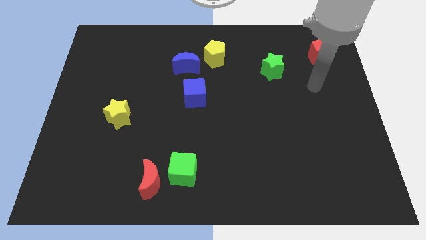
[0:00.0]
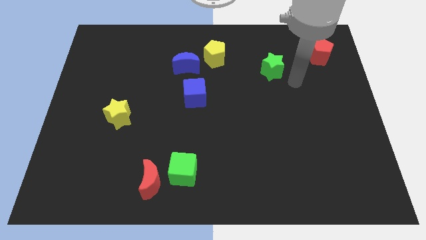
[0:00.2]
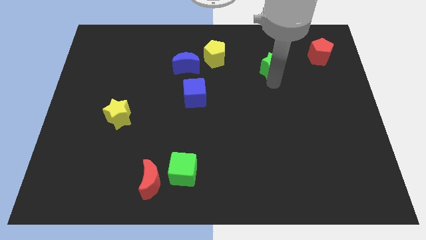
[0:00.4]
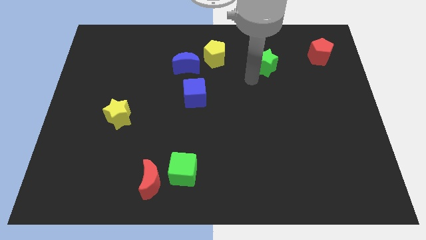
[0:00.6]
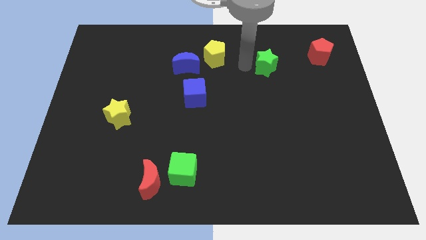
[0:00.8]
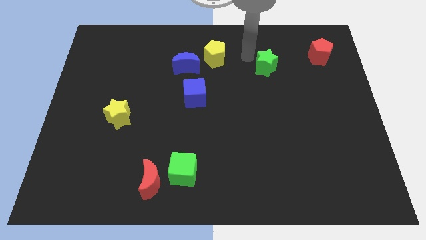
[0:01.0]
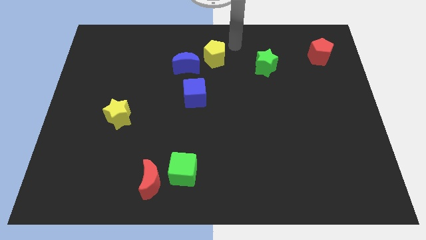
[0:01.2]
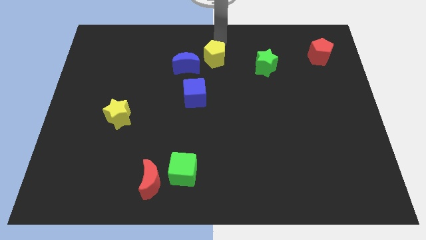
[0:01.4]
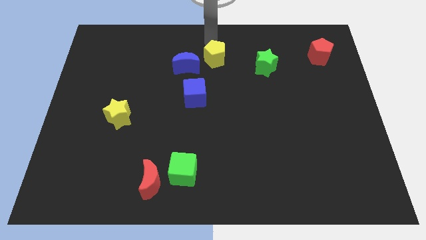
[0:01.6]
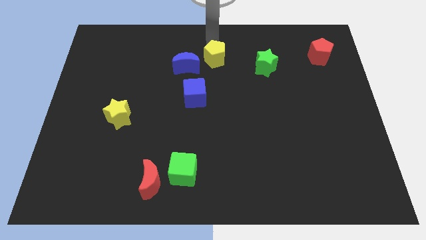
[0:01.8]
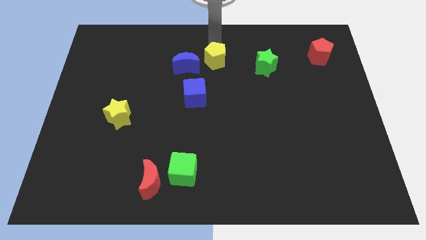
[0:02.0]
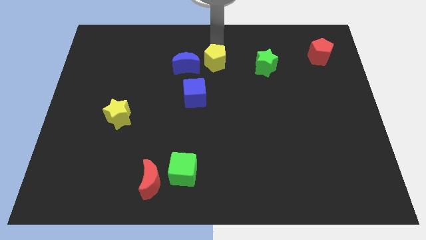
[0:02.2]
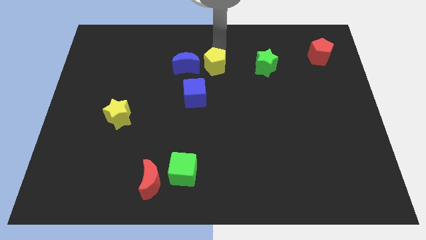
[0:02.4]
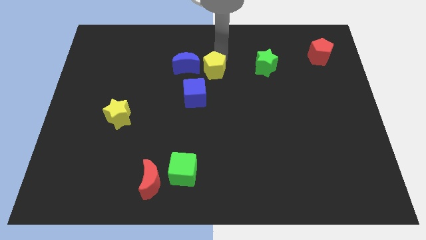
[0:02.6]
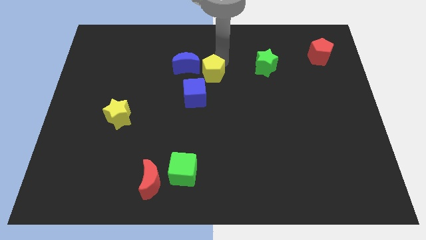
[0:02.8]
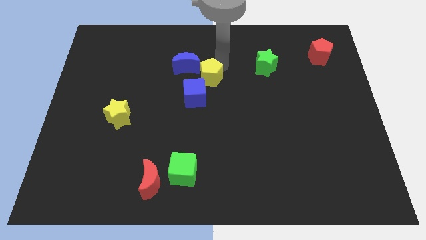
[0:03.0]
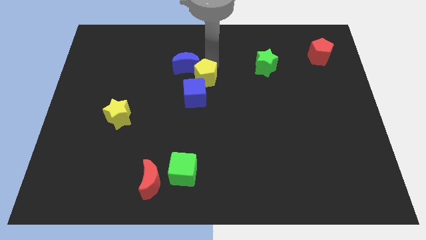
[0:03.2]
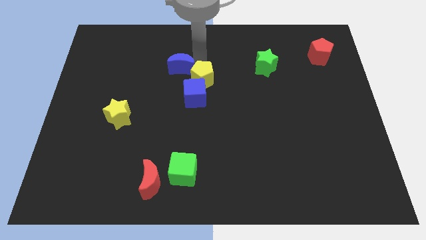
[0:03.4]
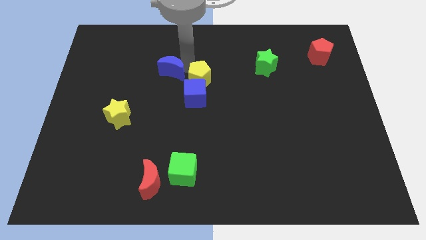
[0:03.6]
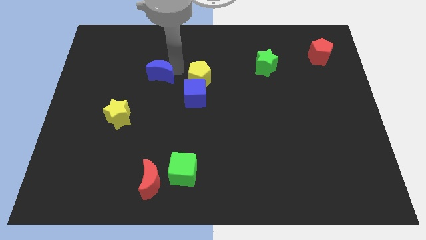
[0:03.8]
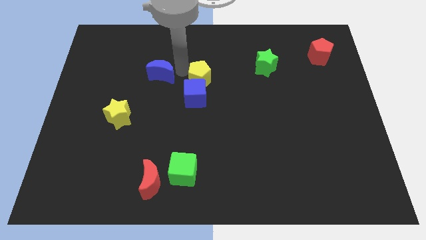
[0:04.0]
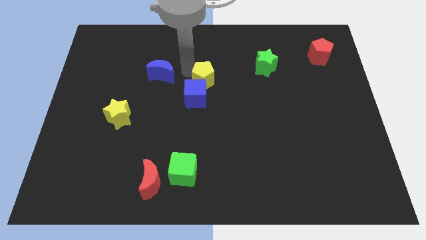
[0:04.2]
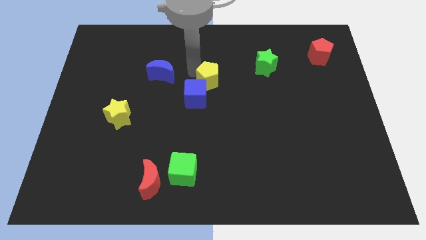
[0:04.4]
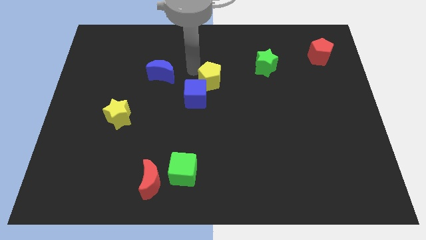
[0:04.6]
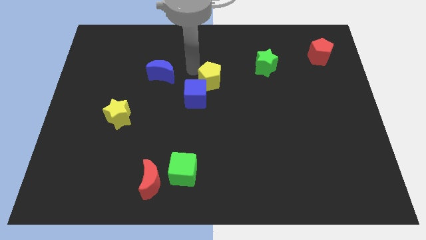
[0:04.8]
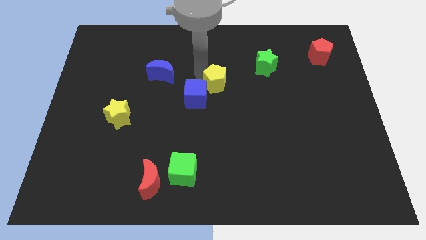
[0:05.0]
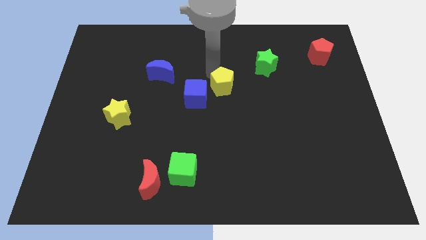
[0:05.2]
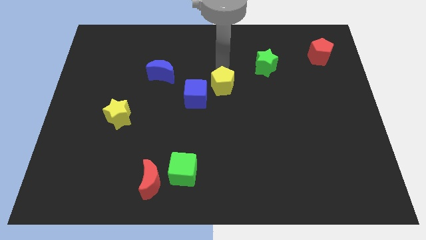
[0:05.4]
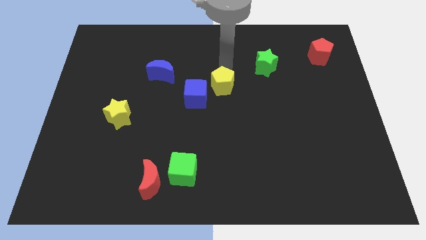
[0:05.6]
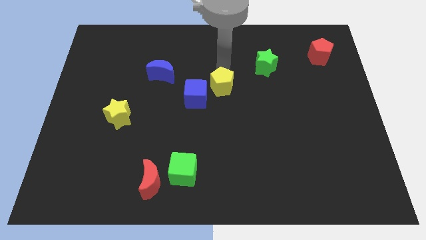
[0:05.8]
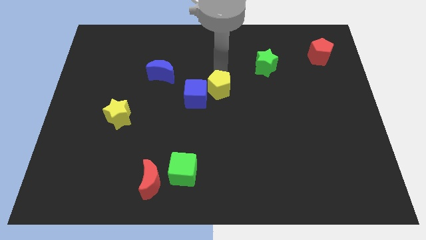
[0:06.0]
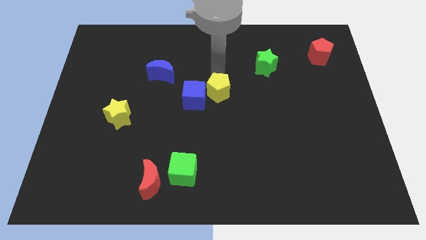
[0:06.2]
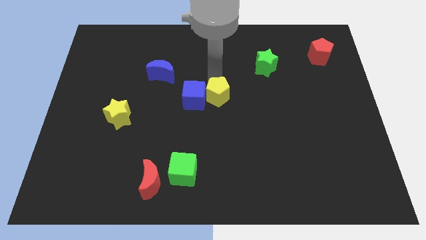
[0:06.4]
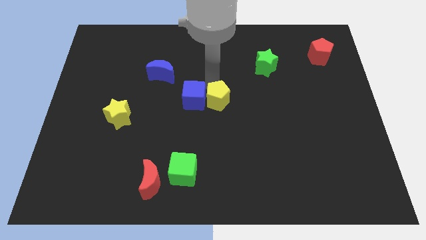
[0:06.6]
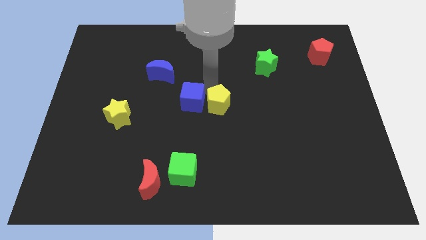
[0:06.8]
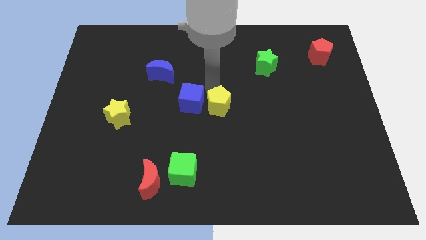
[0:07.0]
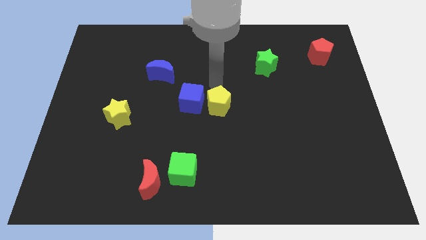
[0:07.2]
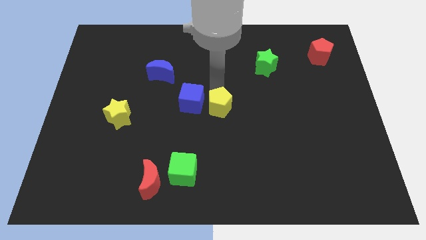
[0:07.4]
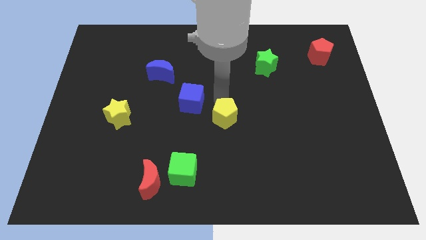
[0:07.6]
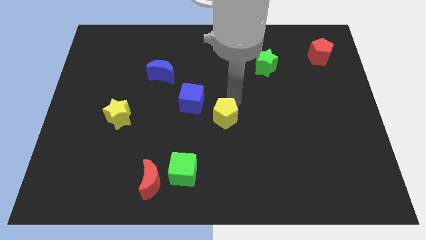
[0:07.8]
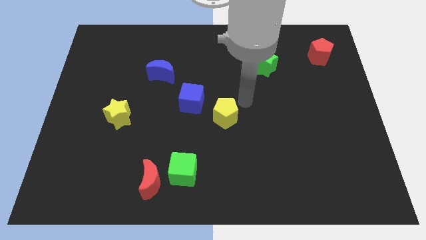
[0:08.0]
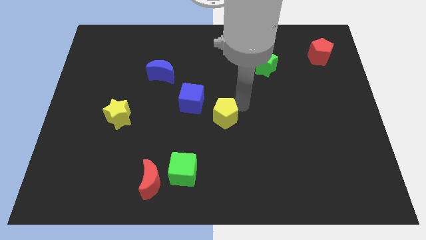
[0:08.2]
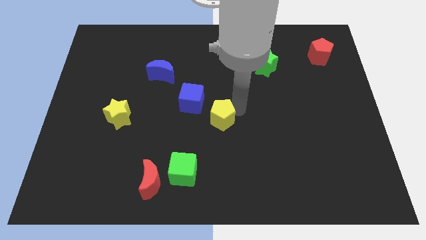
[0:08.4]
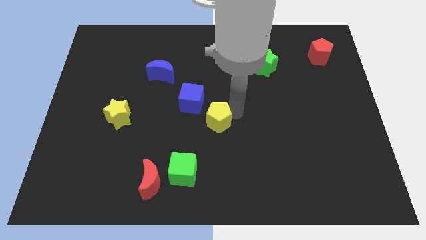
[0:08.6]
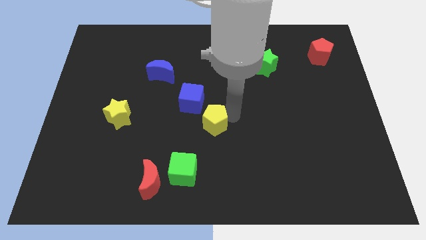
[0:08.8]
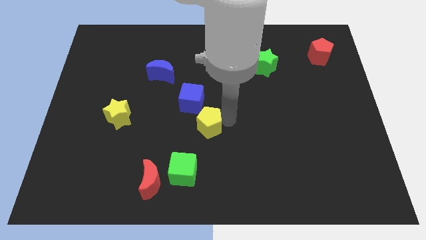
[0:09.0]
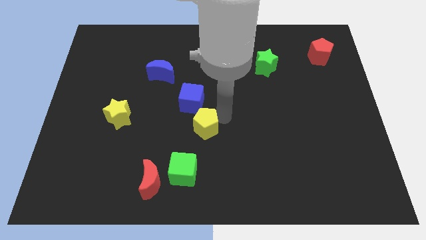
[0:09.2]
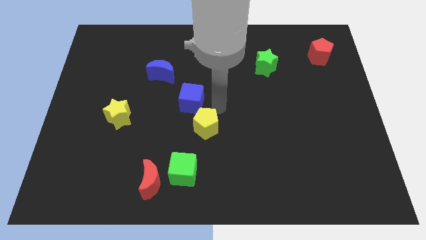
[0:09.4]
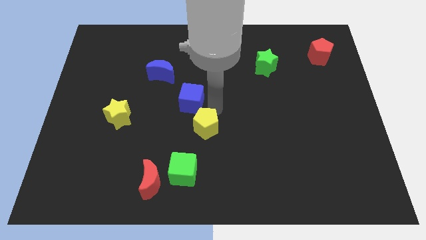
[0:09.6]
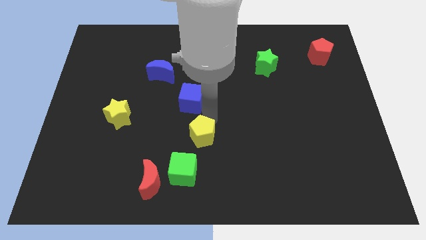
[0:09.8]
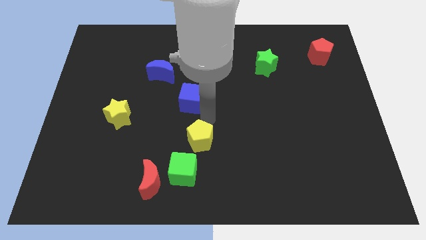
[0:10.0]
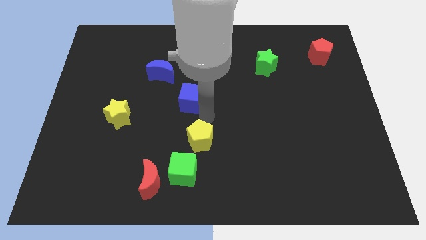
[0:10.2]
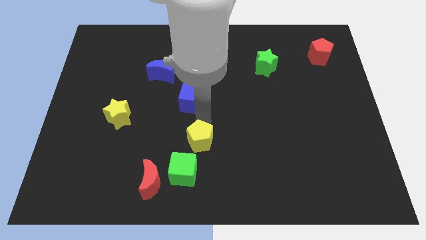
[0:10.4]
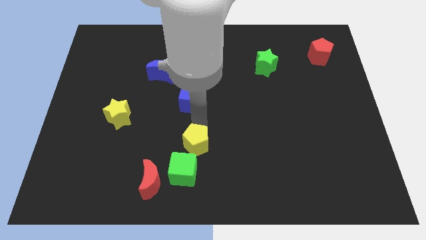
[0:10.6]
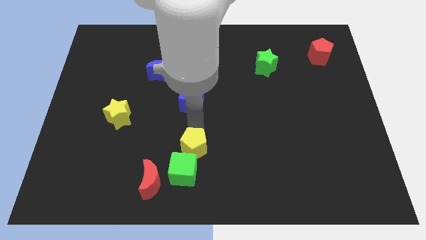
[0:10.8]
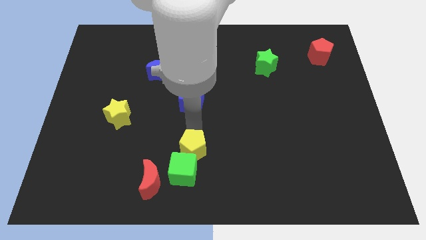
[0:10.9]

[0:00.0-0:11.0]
push the yellow pentagon to the green cube

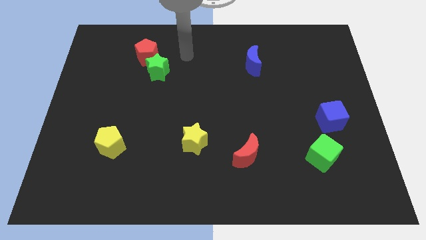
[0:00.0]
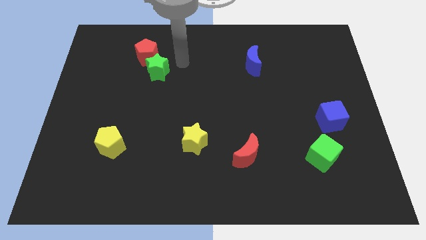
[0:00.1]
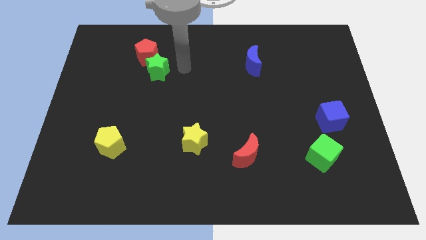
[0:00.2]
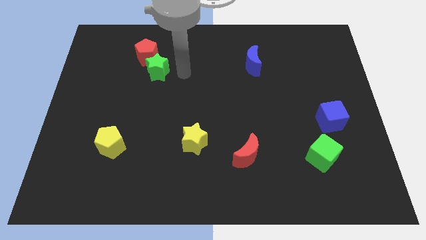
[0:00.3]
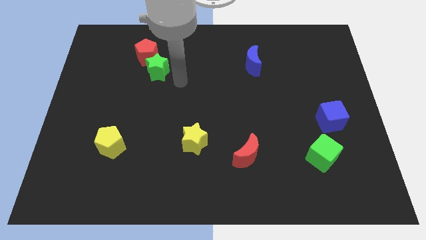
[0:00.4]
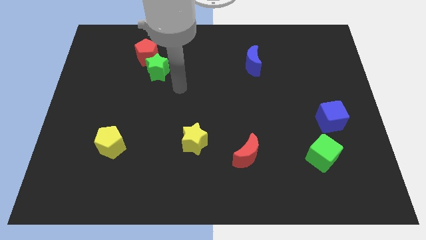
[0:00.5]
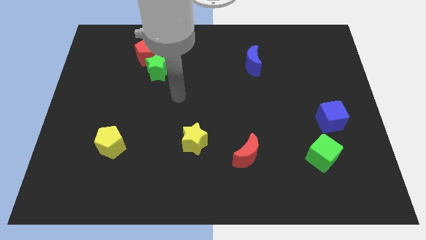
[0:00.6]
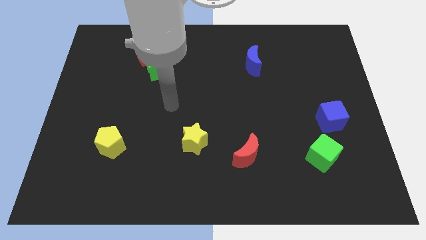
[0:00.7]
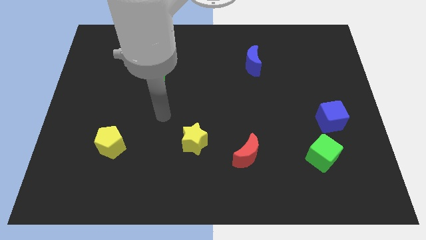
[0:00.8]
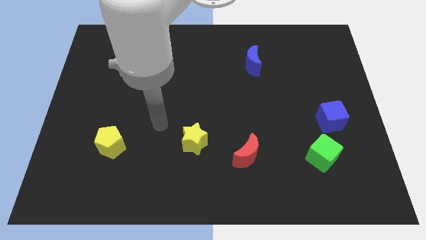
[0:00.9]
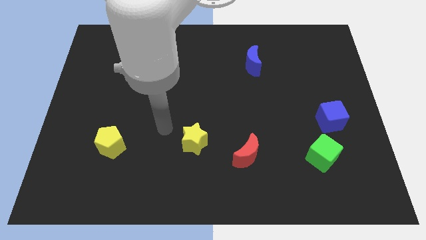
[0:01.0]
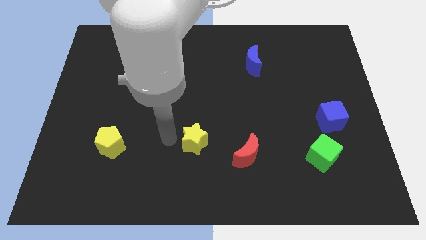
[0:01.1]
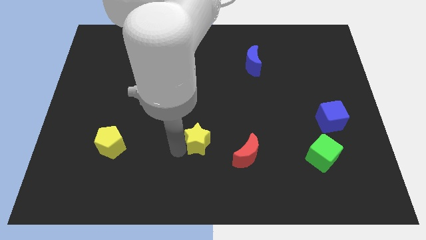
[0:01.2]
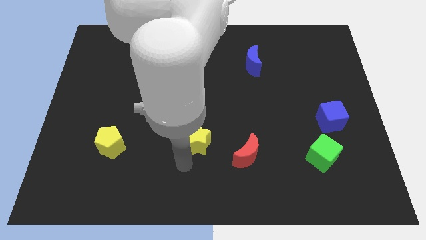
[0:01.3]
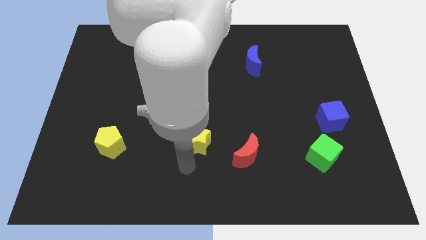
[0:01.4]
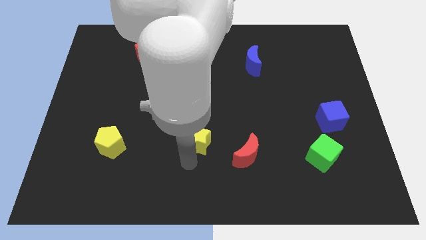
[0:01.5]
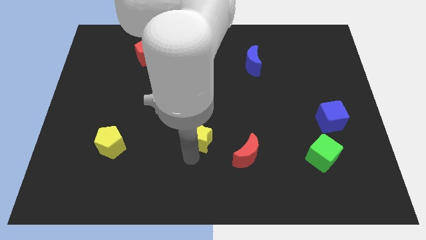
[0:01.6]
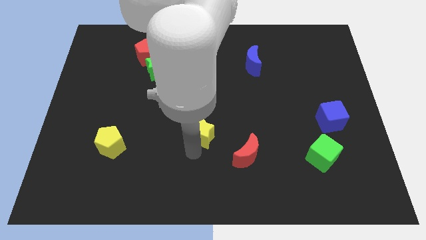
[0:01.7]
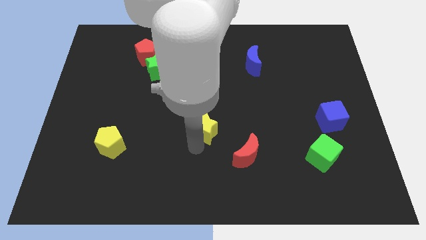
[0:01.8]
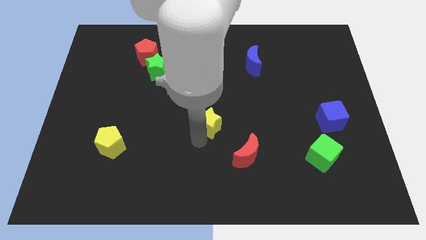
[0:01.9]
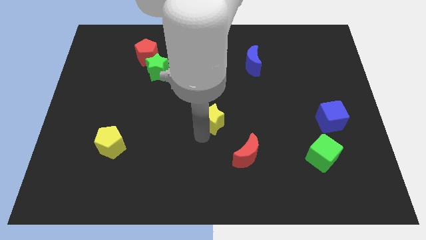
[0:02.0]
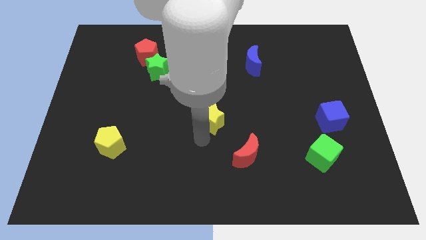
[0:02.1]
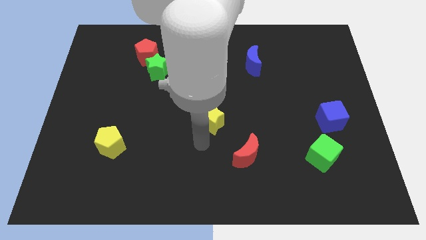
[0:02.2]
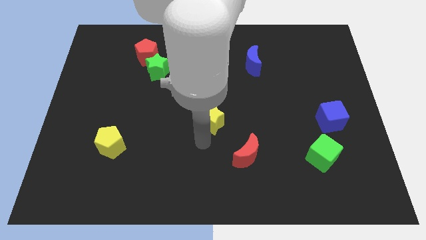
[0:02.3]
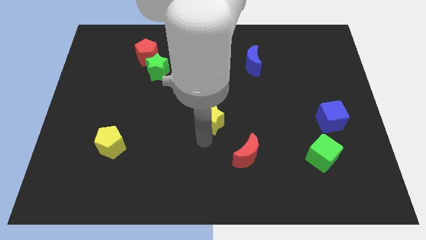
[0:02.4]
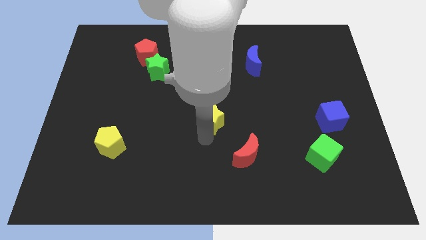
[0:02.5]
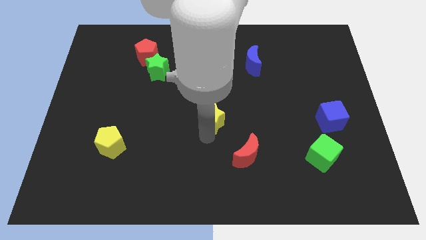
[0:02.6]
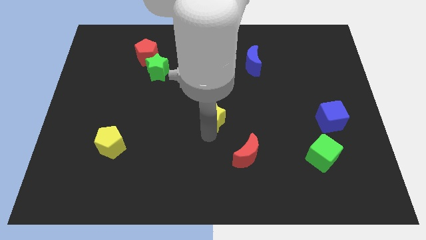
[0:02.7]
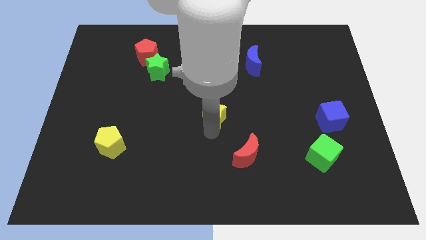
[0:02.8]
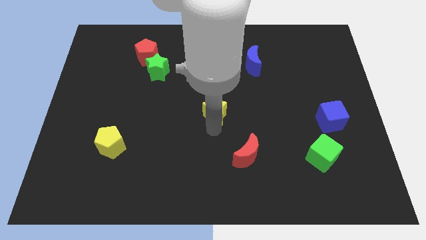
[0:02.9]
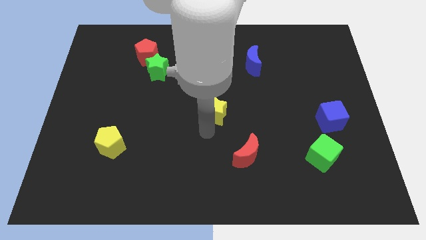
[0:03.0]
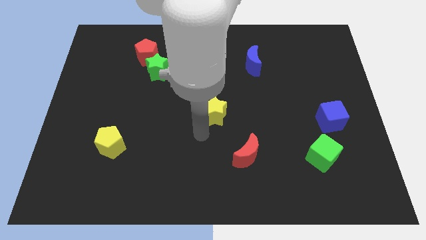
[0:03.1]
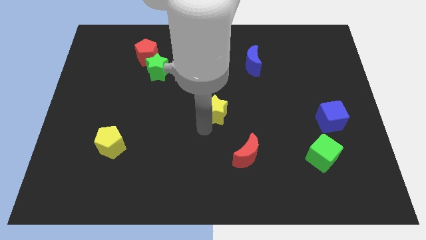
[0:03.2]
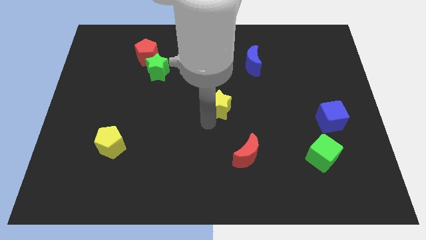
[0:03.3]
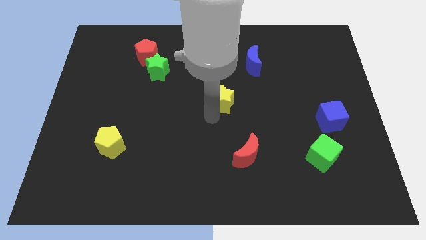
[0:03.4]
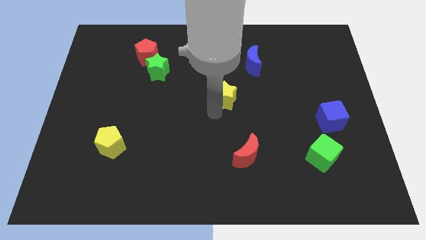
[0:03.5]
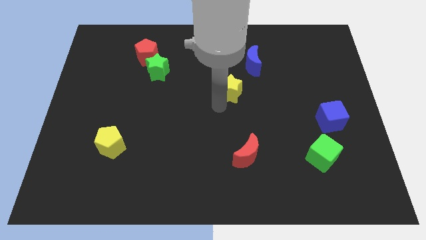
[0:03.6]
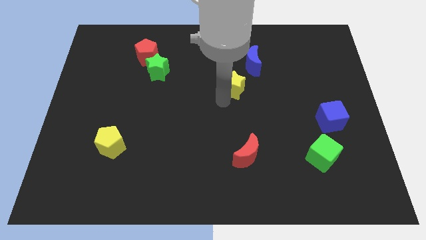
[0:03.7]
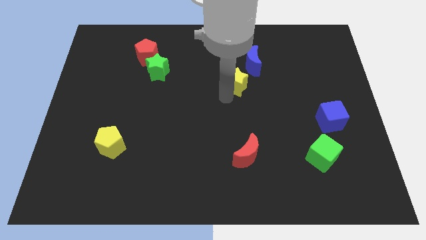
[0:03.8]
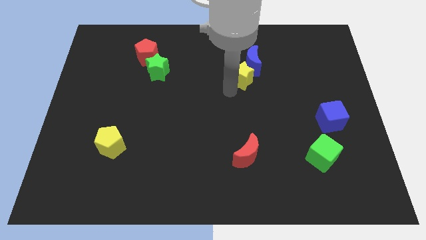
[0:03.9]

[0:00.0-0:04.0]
push the yellow star towards the blue moon
